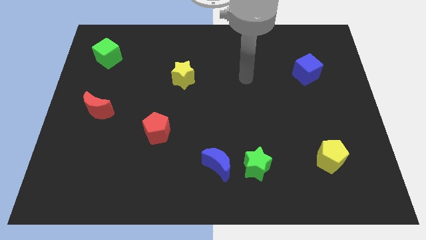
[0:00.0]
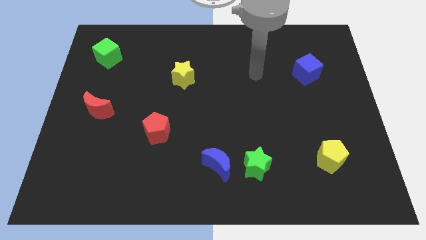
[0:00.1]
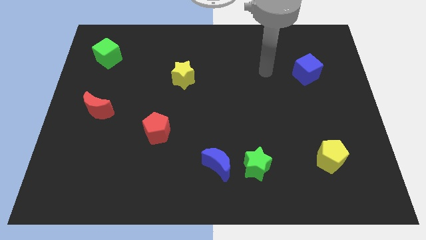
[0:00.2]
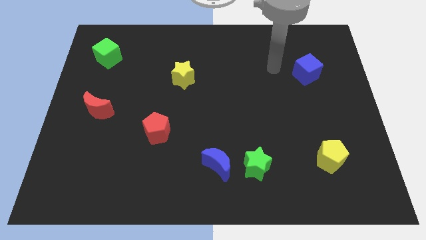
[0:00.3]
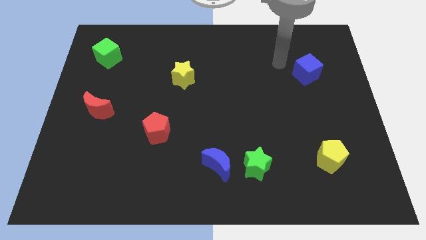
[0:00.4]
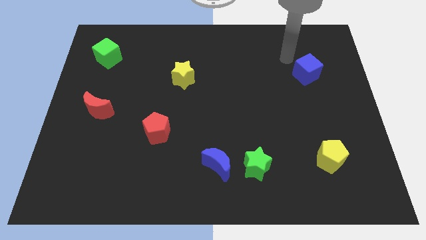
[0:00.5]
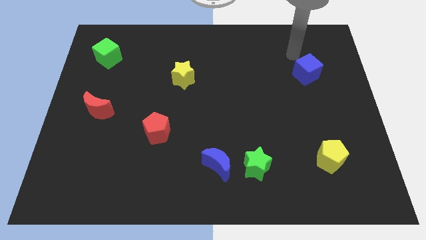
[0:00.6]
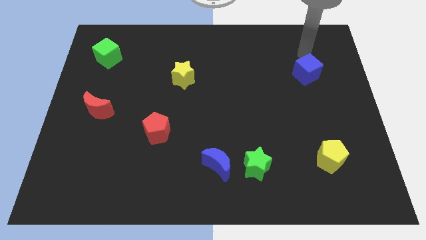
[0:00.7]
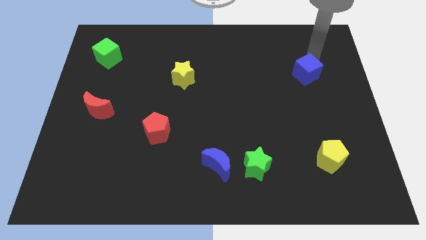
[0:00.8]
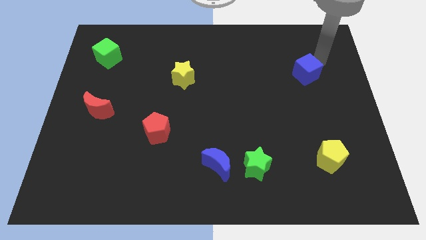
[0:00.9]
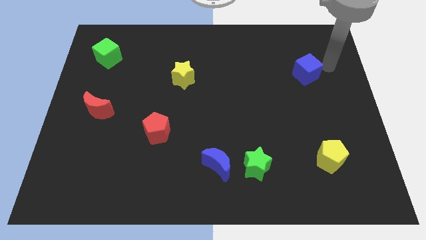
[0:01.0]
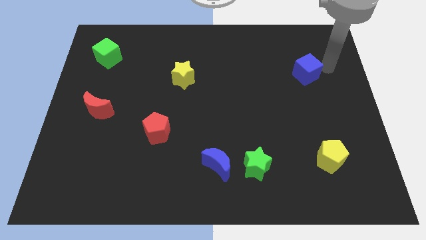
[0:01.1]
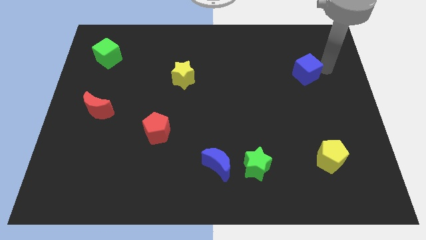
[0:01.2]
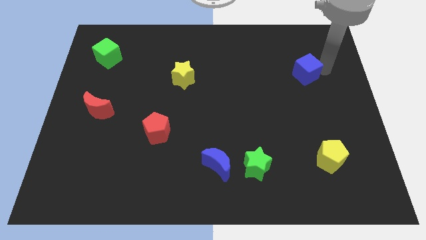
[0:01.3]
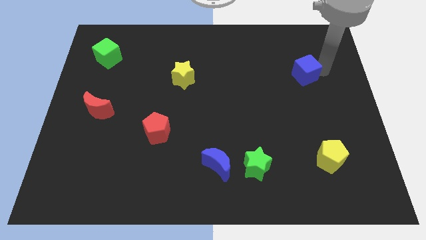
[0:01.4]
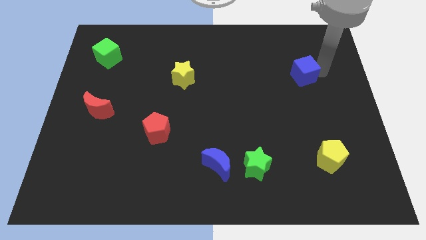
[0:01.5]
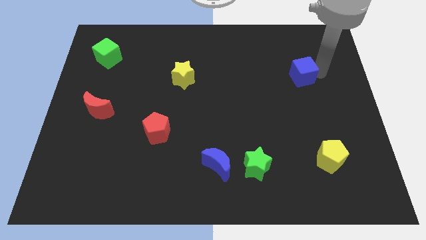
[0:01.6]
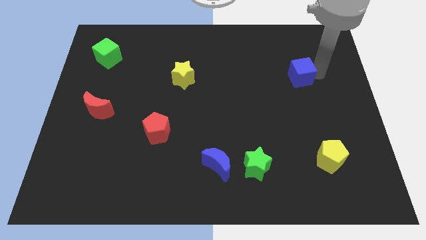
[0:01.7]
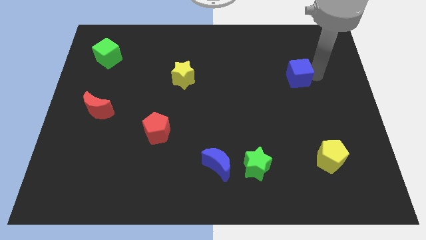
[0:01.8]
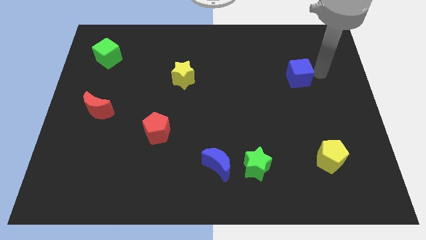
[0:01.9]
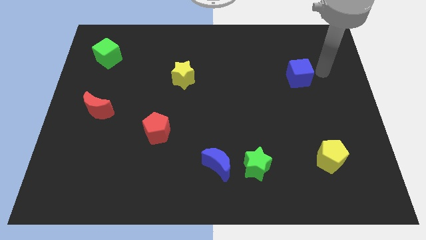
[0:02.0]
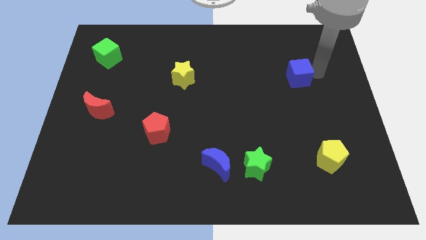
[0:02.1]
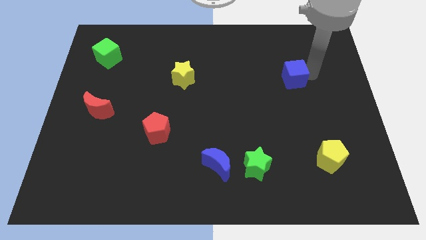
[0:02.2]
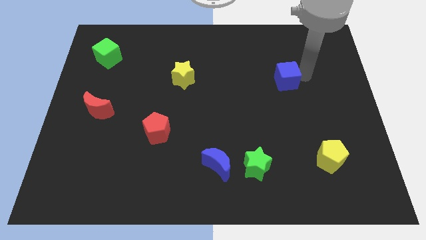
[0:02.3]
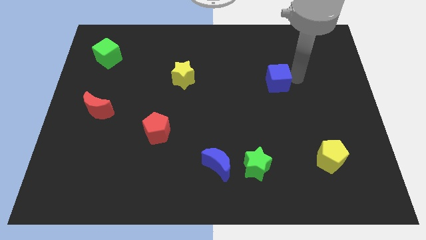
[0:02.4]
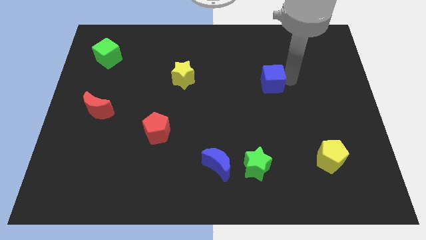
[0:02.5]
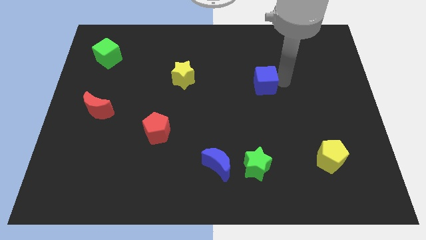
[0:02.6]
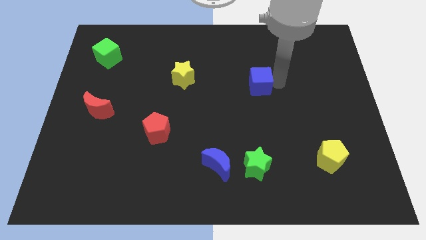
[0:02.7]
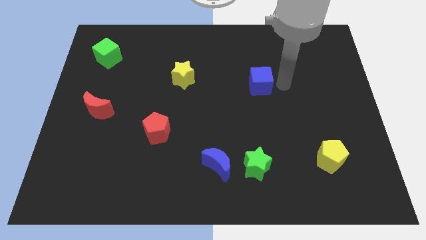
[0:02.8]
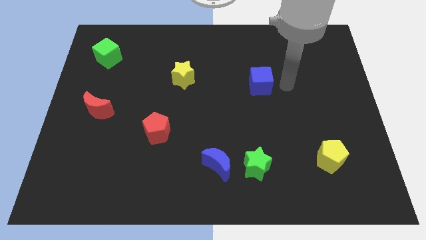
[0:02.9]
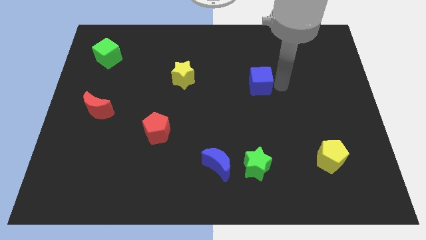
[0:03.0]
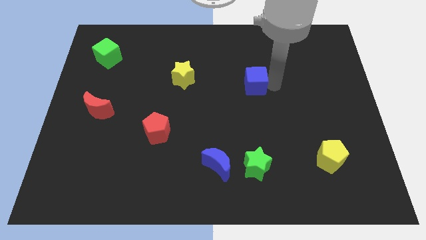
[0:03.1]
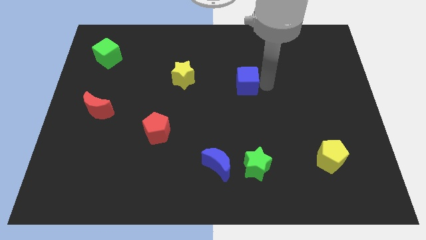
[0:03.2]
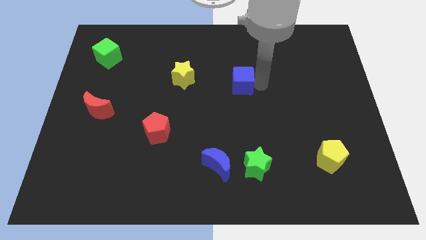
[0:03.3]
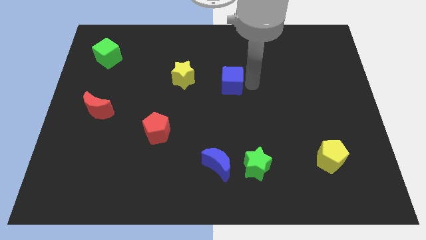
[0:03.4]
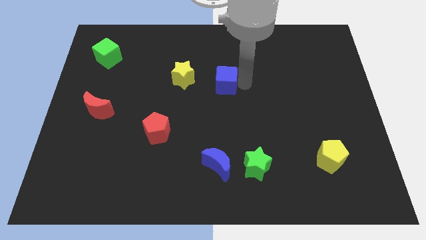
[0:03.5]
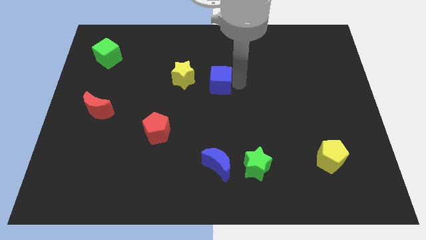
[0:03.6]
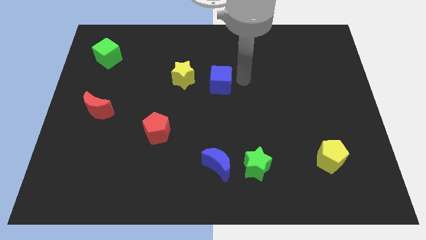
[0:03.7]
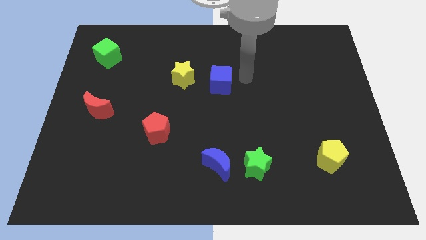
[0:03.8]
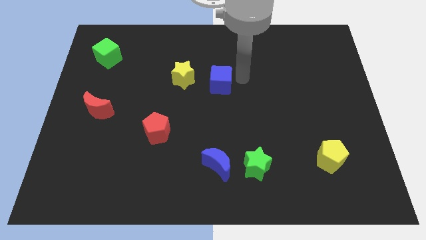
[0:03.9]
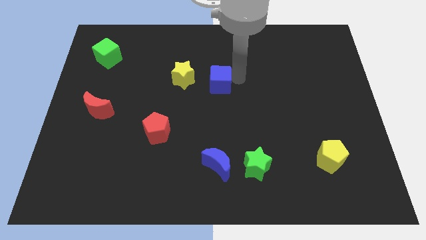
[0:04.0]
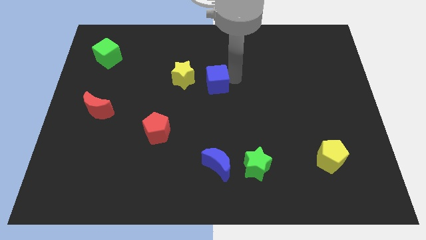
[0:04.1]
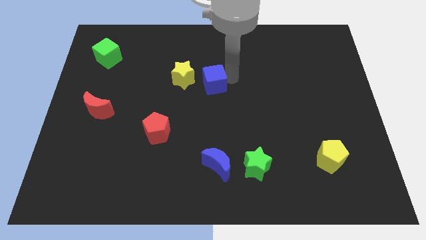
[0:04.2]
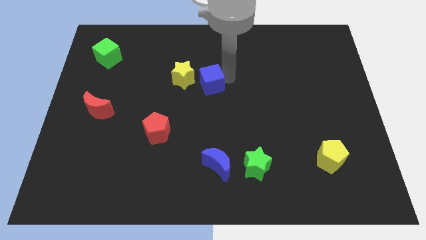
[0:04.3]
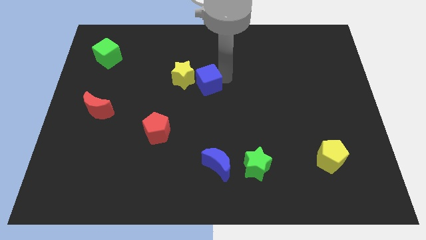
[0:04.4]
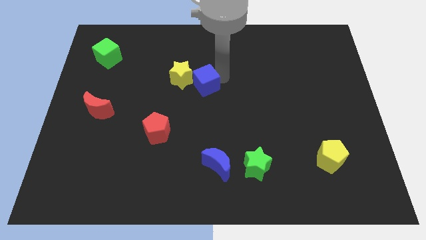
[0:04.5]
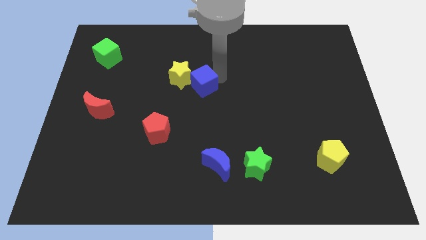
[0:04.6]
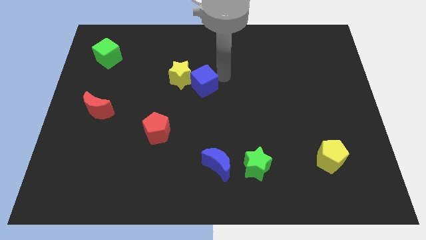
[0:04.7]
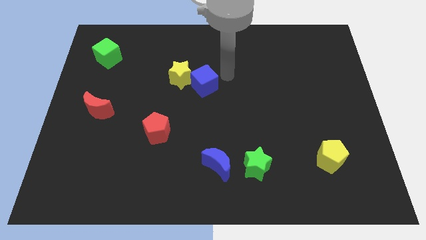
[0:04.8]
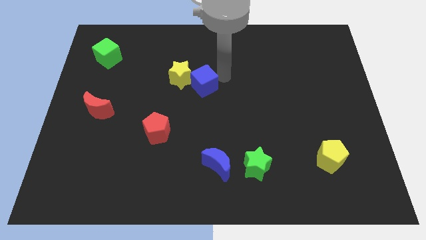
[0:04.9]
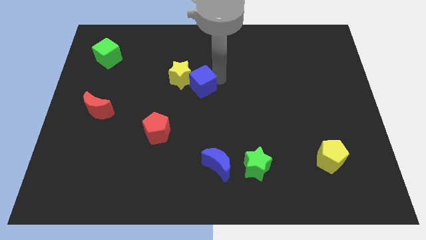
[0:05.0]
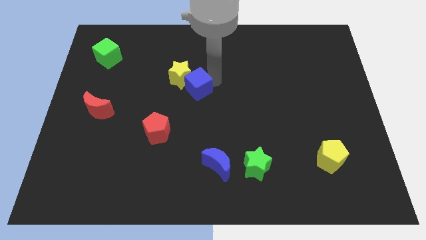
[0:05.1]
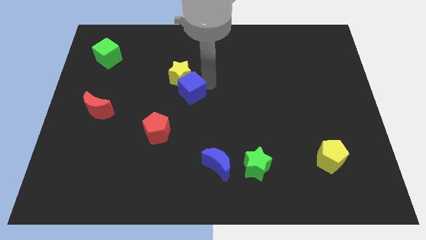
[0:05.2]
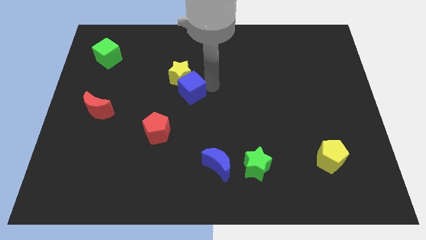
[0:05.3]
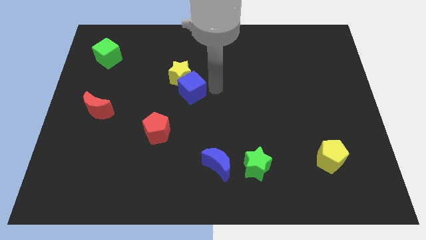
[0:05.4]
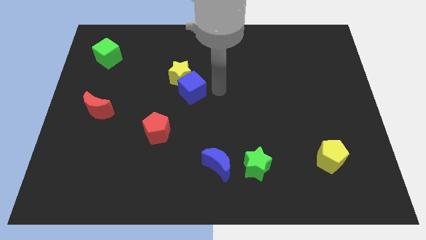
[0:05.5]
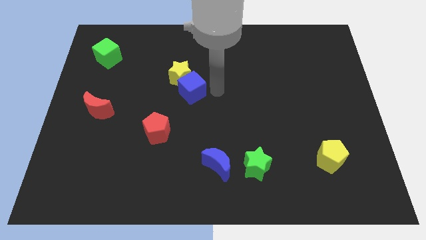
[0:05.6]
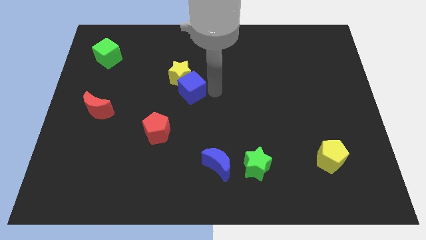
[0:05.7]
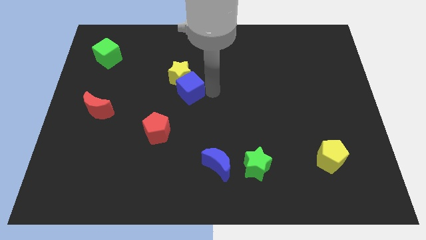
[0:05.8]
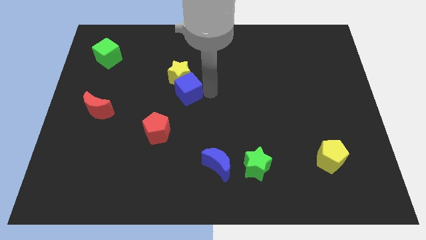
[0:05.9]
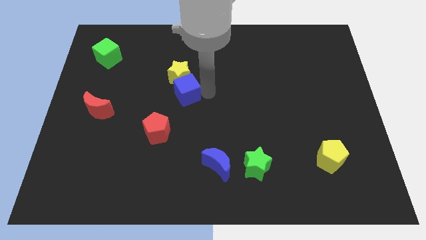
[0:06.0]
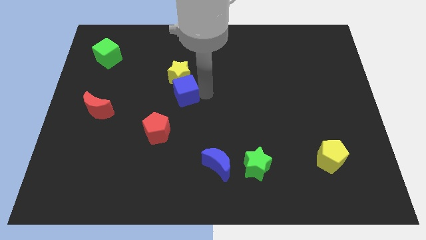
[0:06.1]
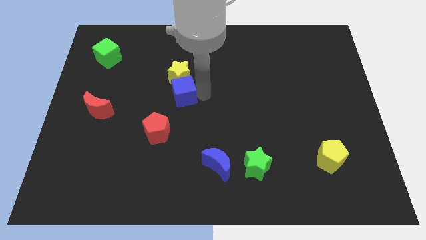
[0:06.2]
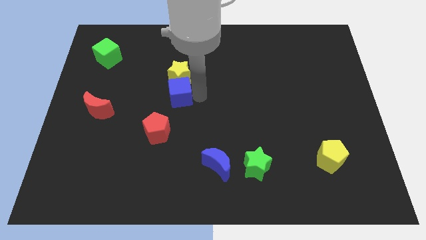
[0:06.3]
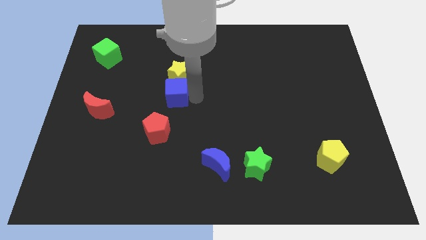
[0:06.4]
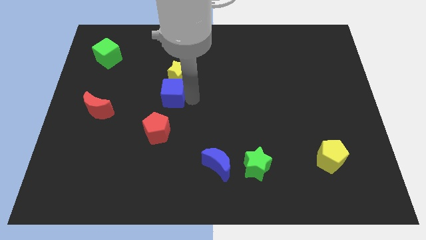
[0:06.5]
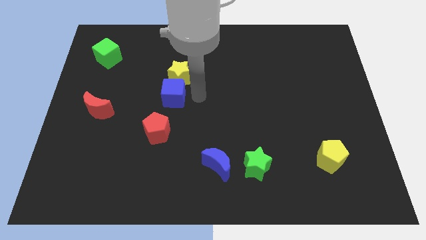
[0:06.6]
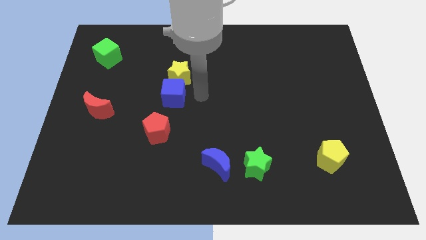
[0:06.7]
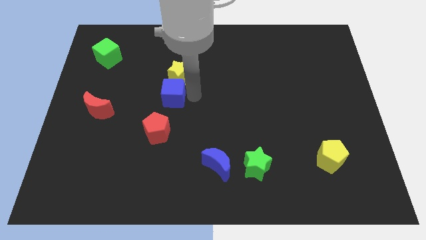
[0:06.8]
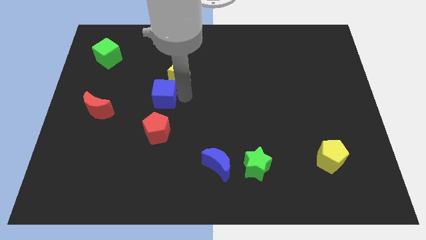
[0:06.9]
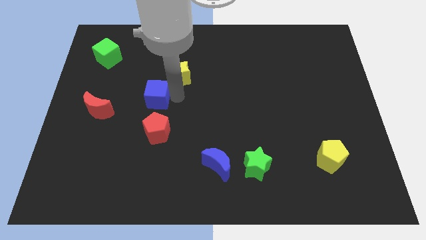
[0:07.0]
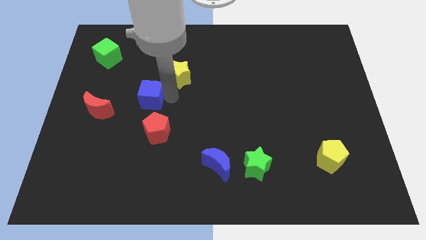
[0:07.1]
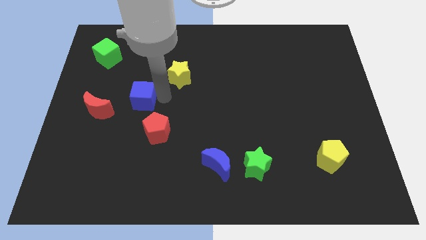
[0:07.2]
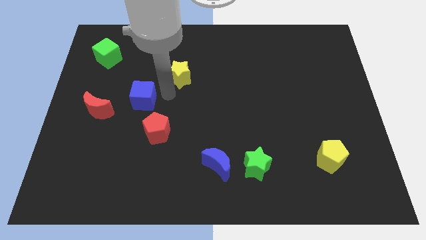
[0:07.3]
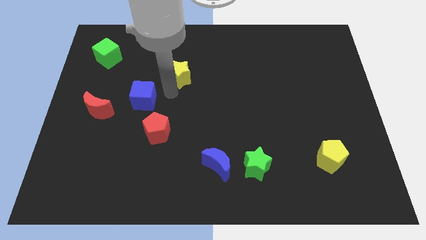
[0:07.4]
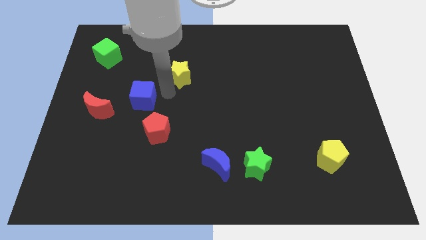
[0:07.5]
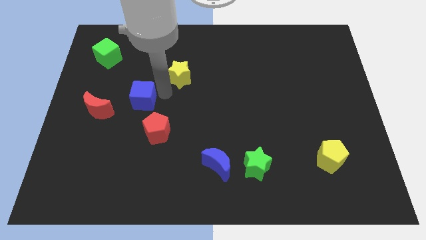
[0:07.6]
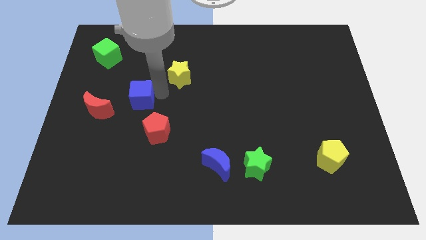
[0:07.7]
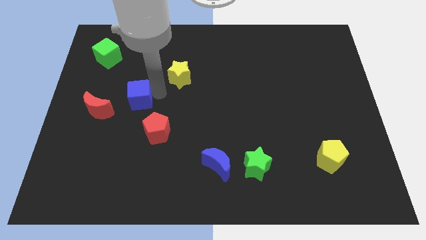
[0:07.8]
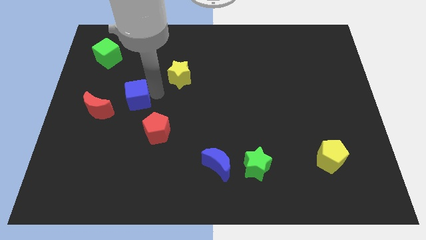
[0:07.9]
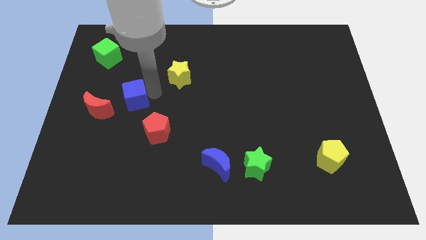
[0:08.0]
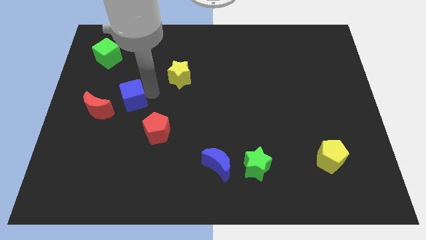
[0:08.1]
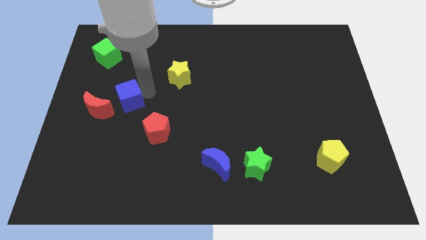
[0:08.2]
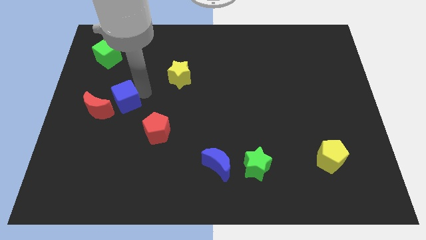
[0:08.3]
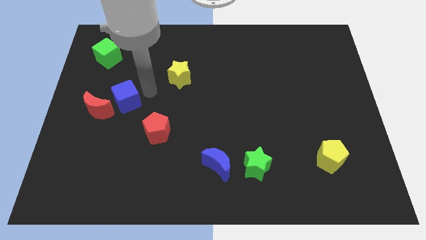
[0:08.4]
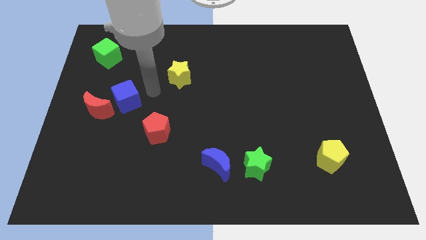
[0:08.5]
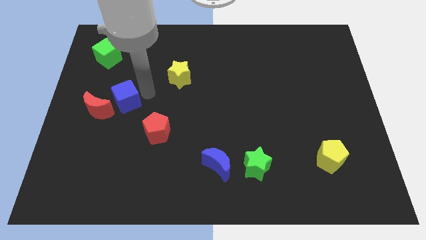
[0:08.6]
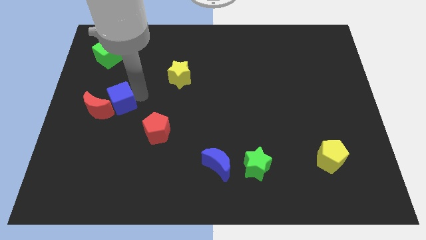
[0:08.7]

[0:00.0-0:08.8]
slide the blue cube to the red moon
